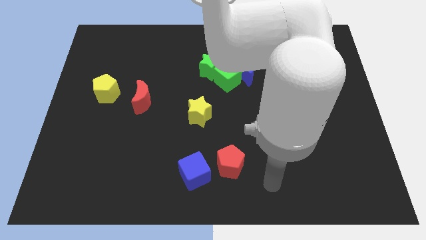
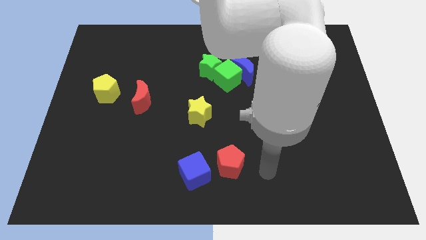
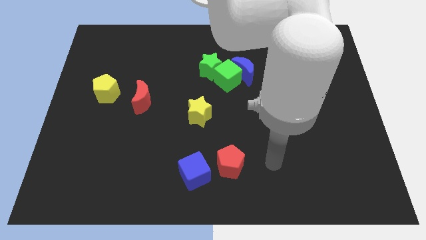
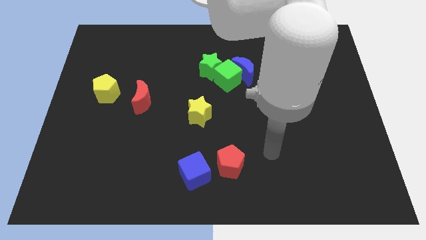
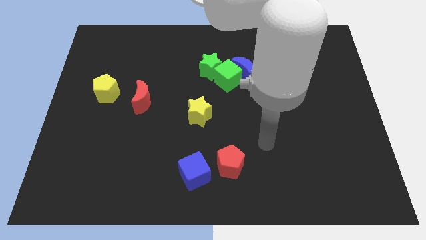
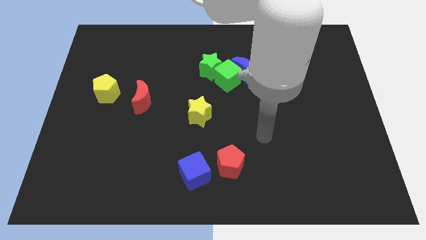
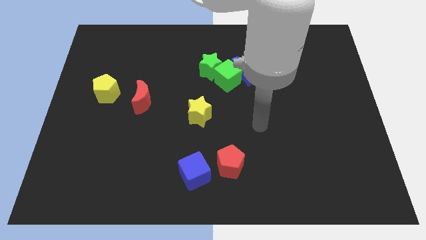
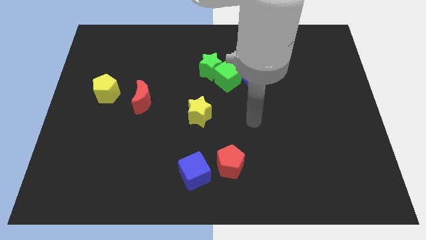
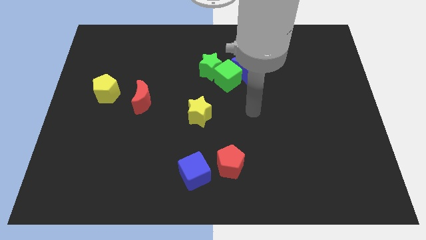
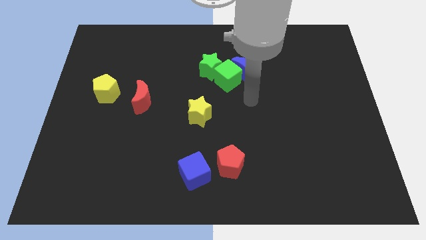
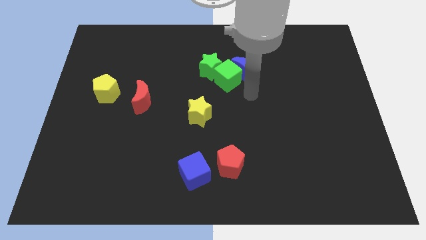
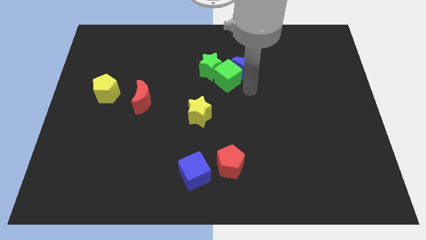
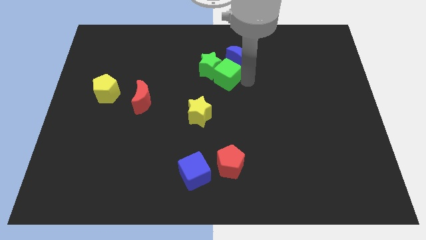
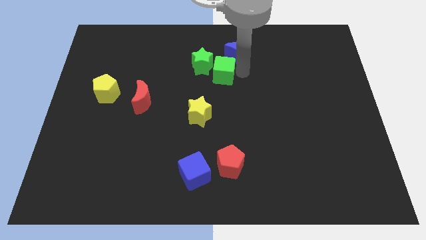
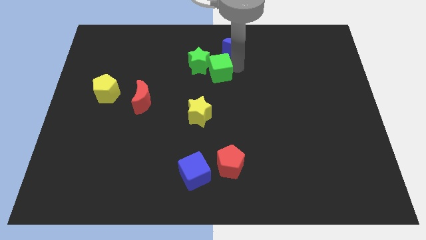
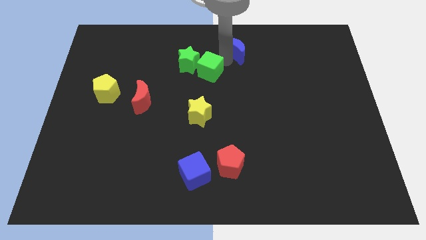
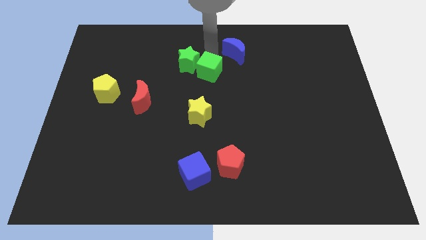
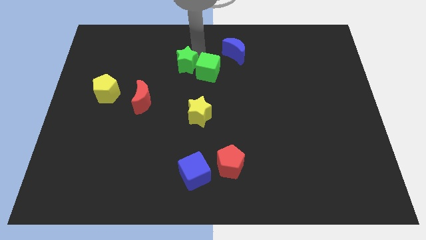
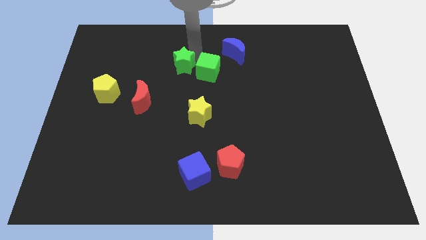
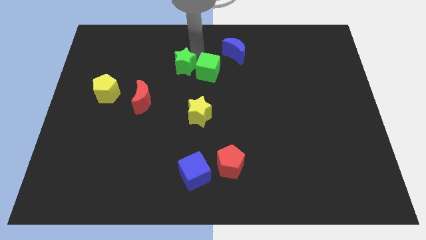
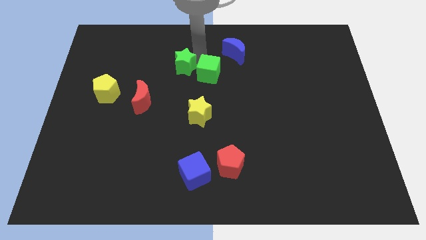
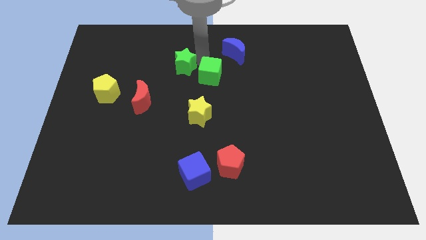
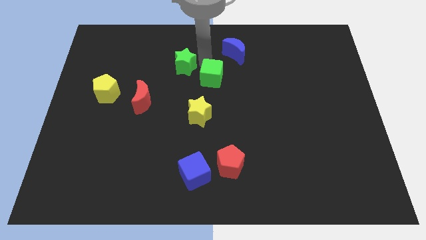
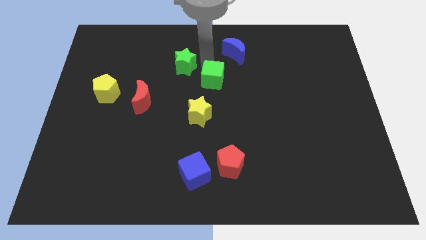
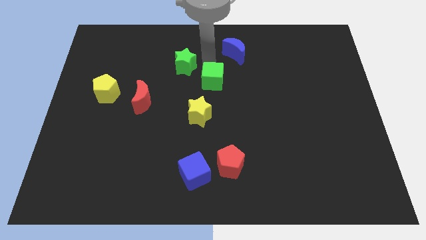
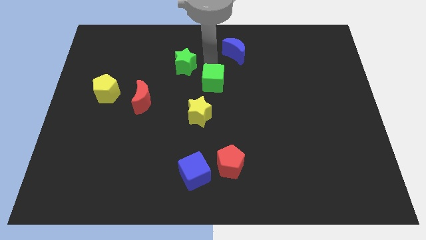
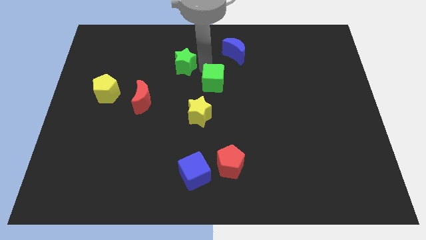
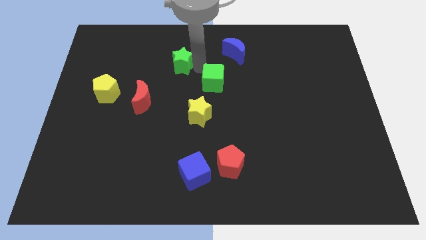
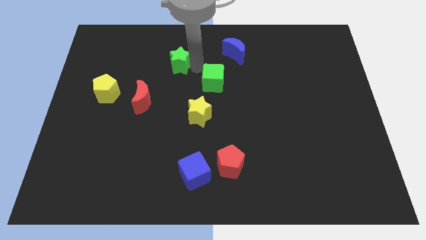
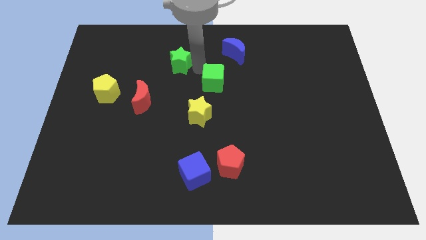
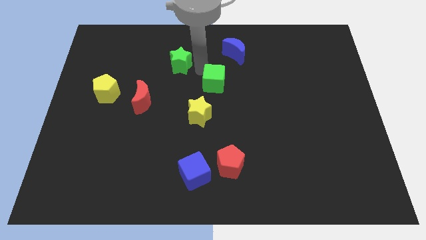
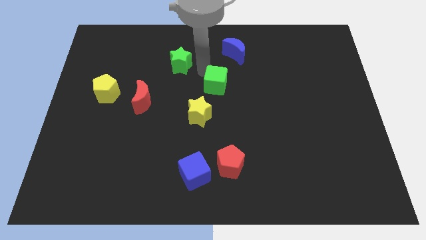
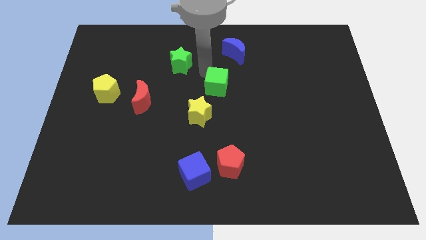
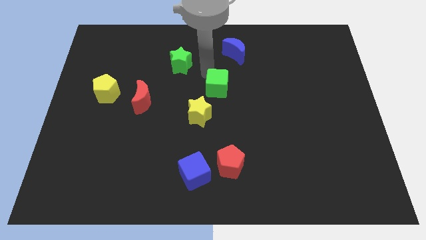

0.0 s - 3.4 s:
pull the green cube apart from the blue moon and green star

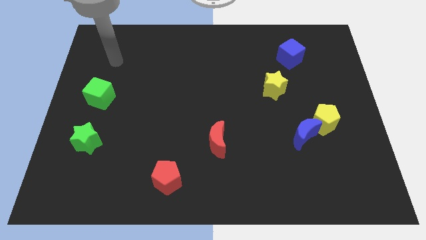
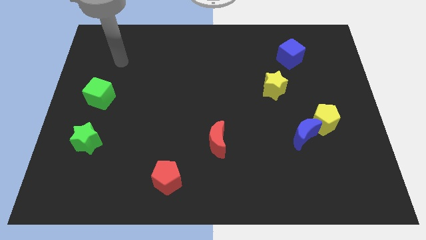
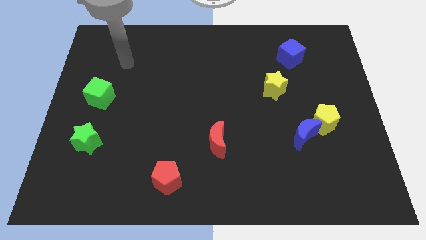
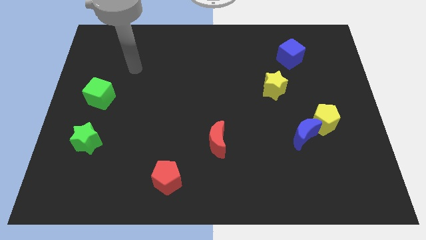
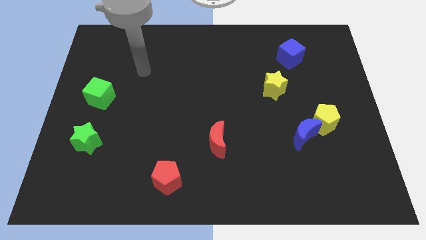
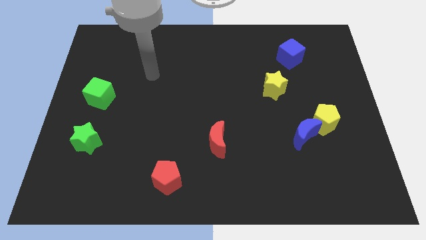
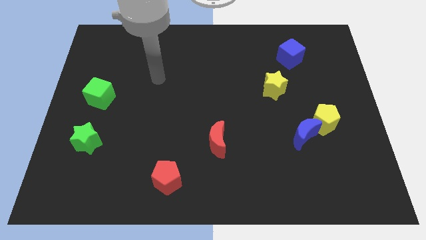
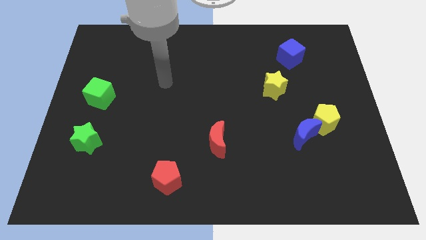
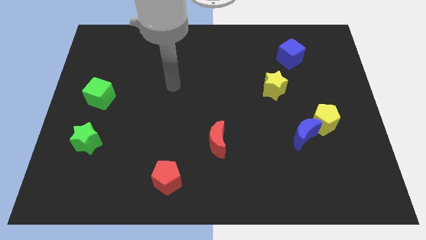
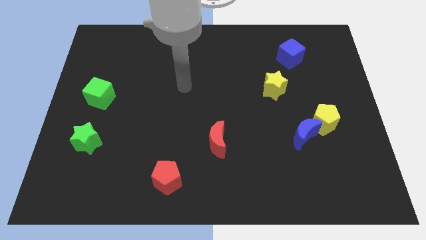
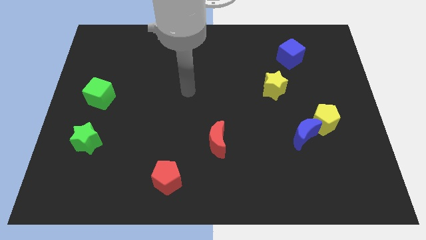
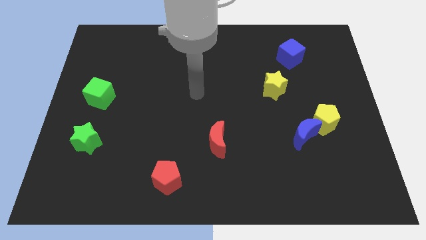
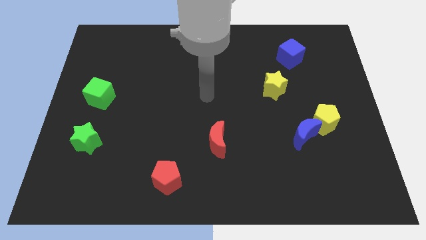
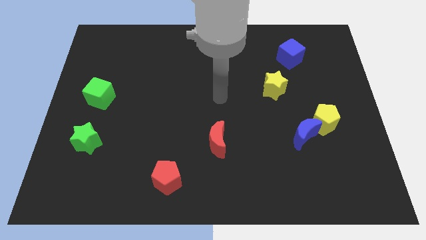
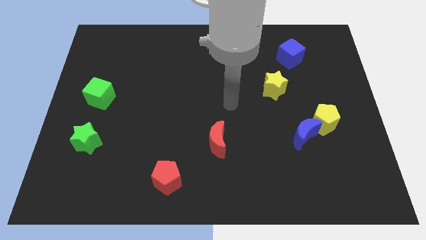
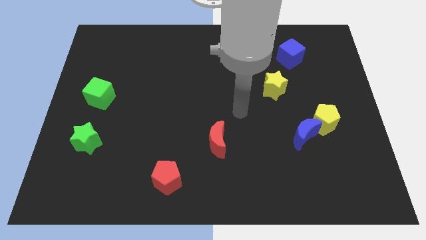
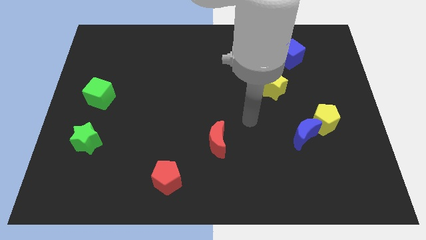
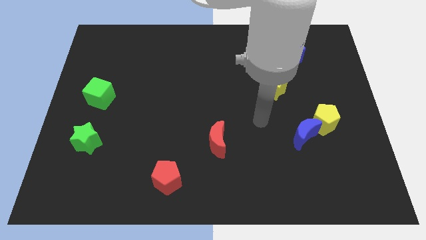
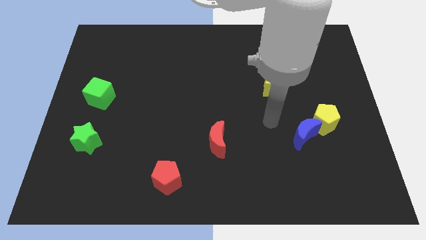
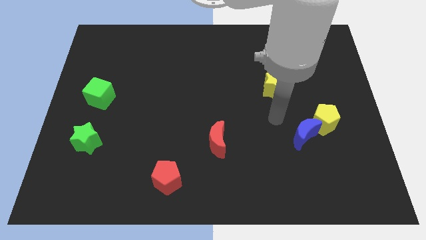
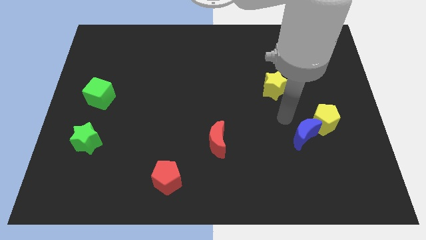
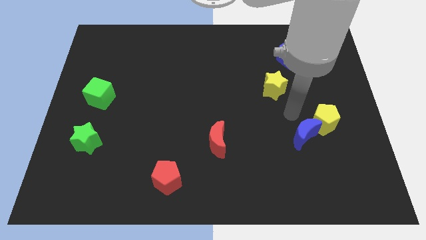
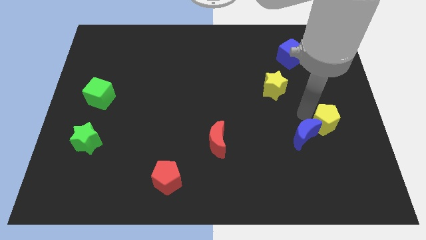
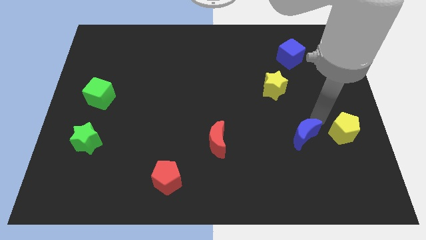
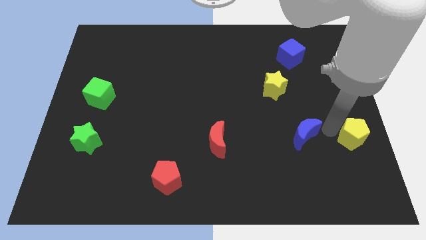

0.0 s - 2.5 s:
pull the blue moon apart from the yellow pentagon

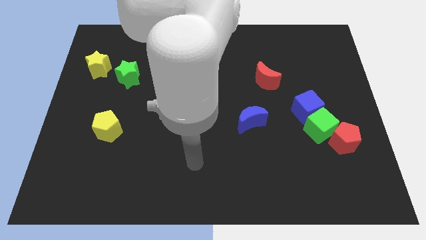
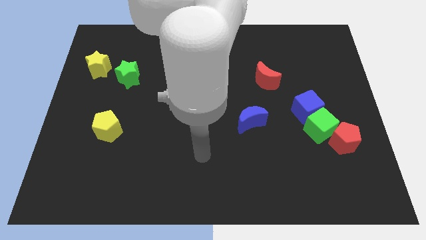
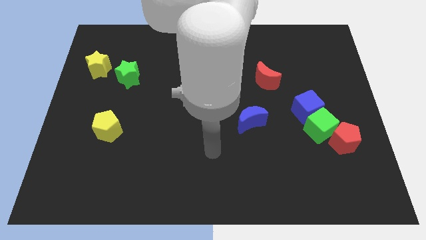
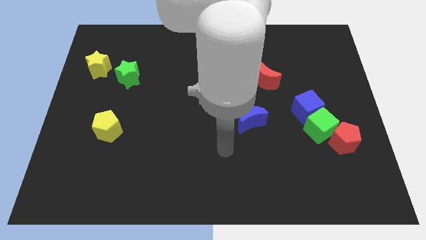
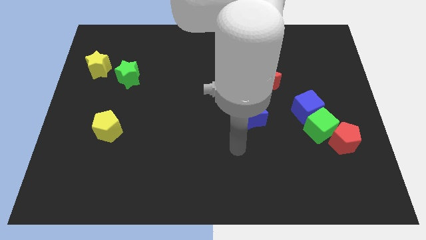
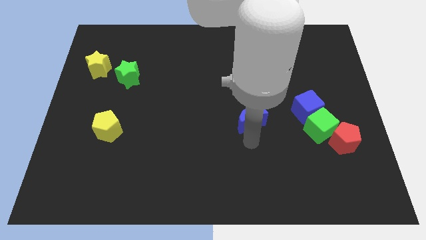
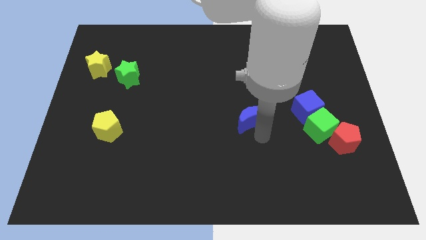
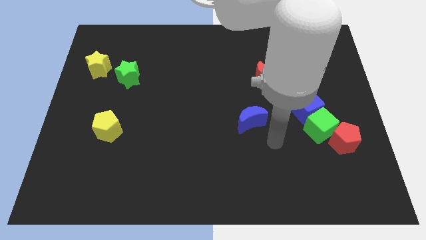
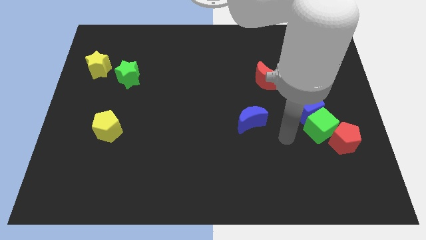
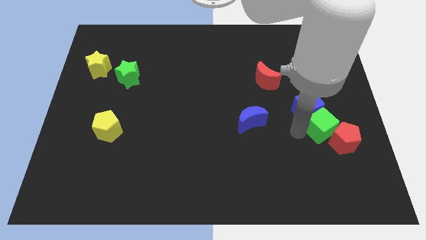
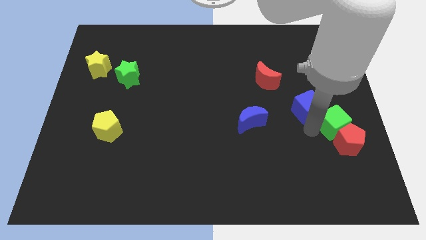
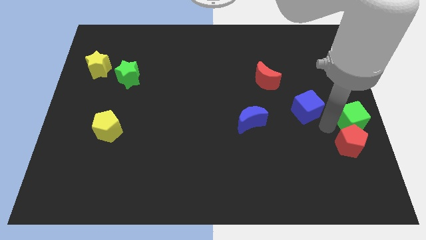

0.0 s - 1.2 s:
pull the blue cube apart from the green cube

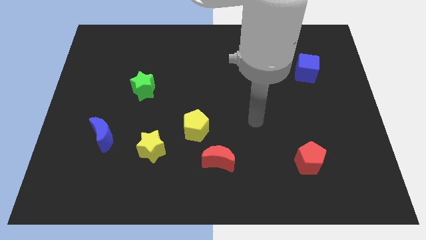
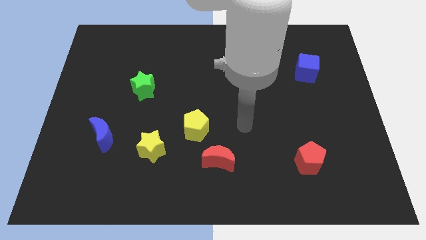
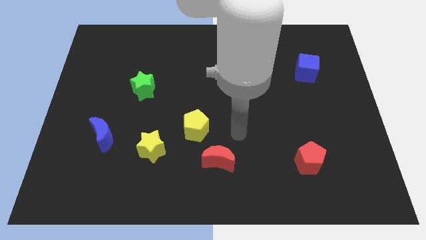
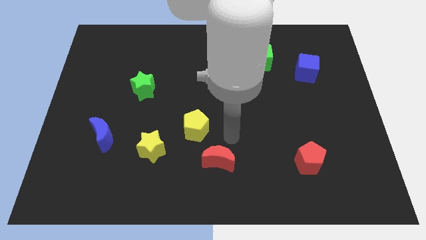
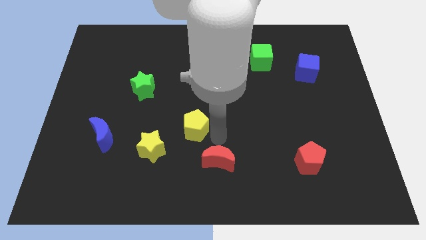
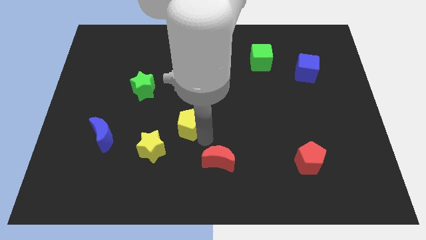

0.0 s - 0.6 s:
pull the red moon apart from the yellow pentagon

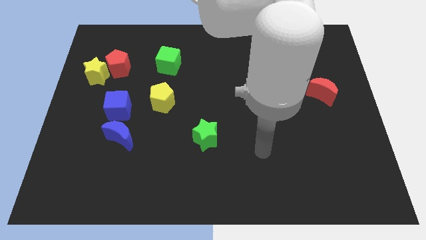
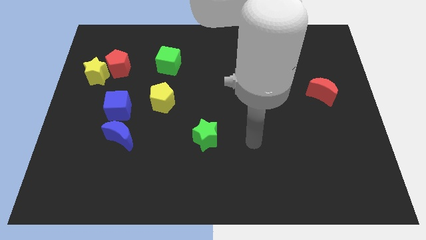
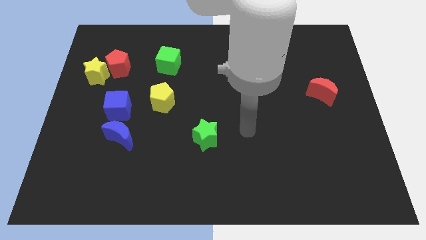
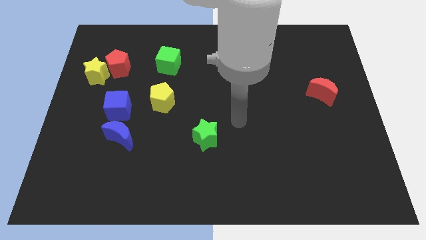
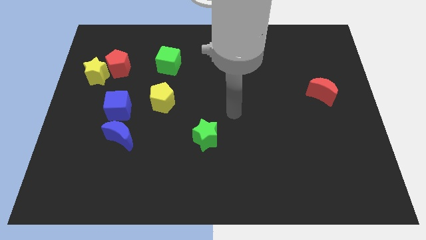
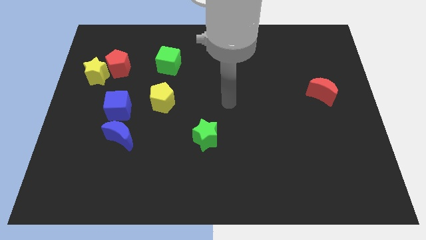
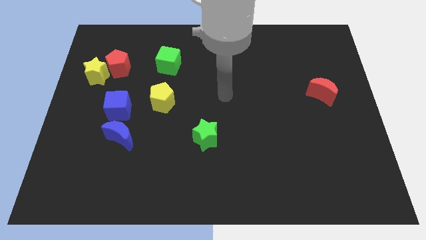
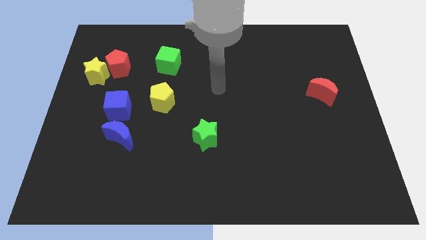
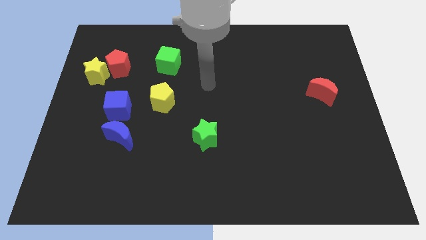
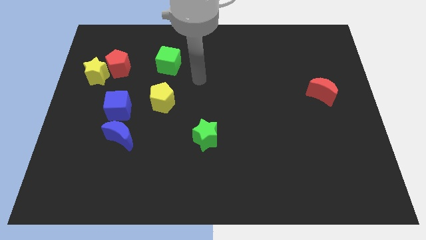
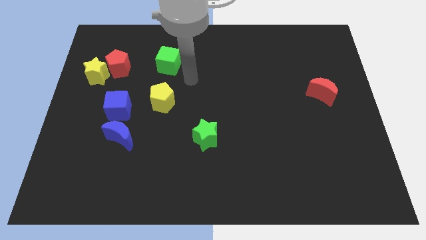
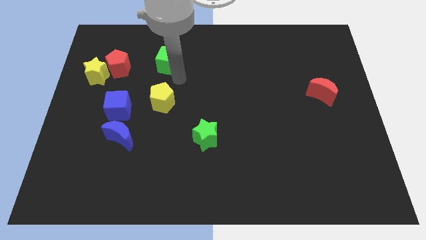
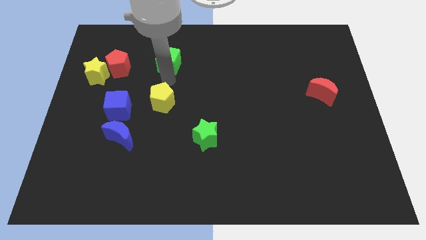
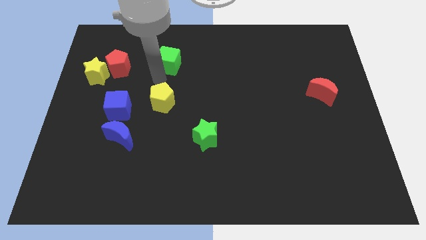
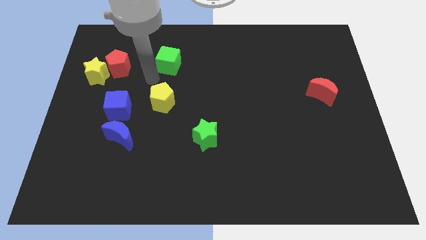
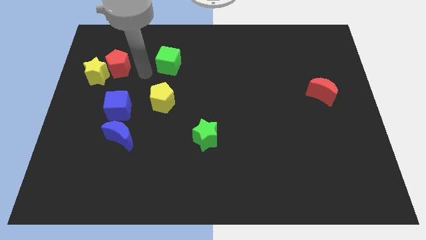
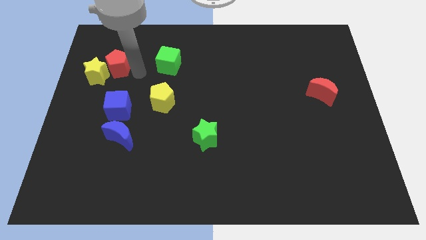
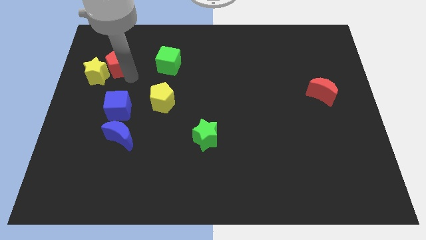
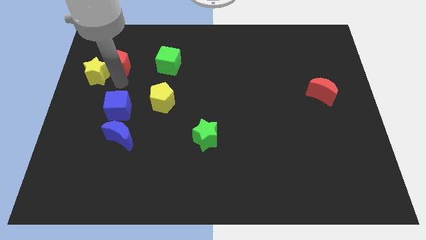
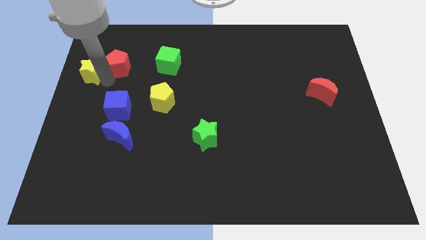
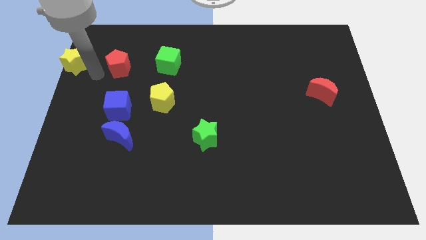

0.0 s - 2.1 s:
pull the red pentagon apart from the yellow star
